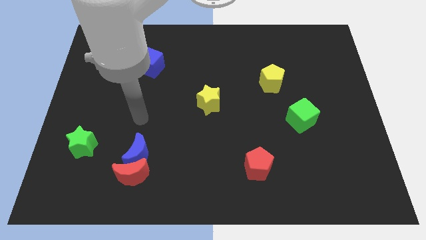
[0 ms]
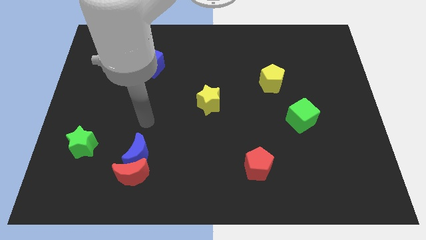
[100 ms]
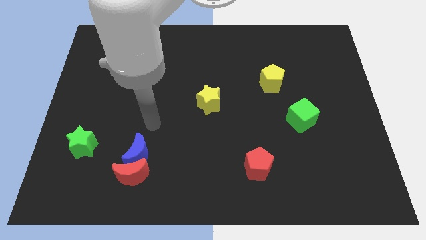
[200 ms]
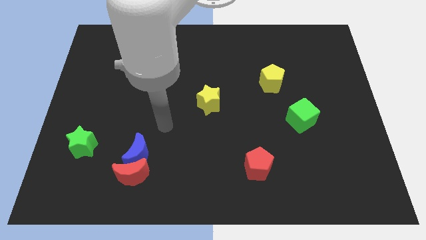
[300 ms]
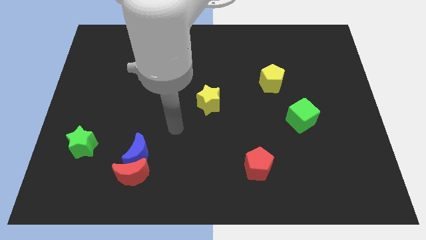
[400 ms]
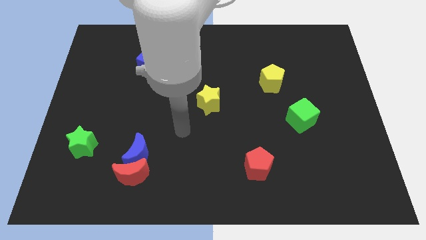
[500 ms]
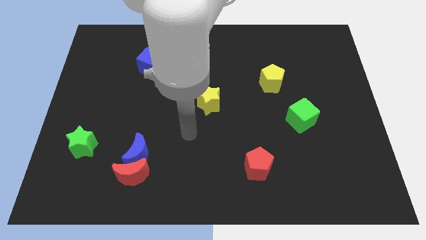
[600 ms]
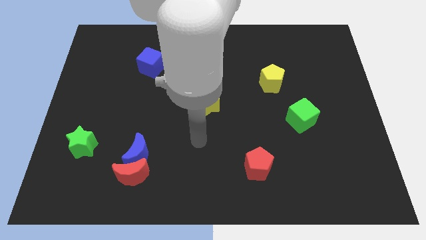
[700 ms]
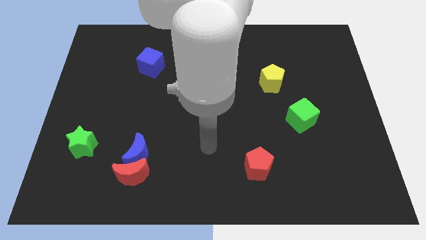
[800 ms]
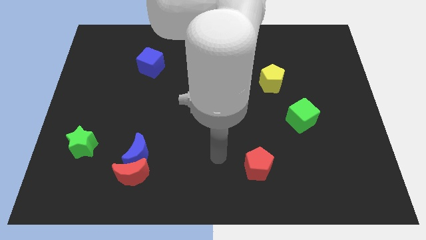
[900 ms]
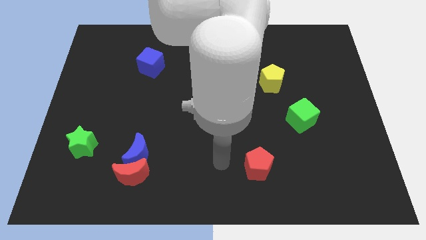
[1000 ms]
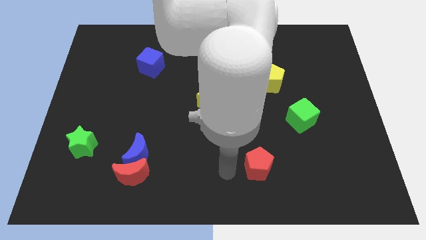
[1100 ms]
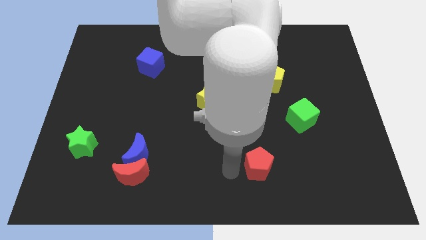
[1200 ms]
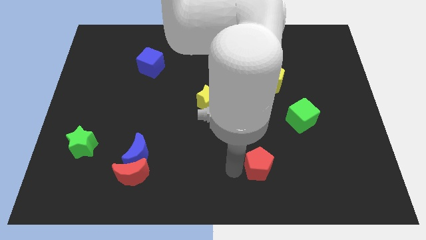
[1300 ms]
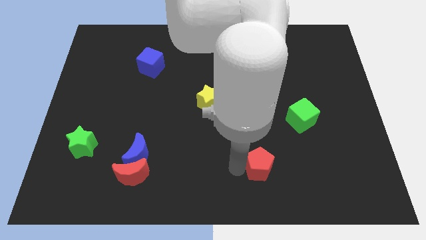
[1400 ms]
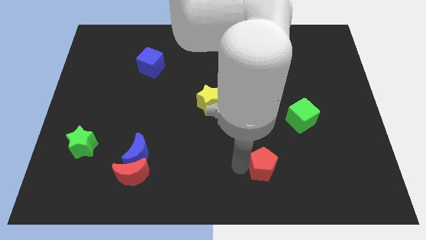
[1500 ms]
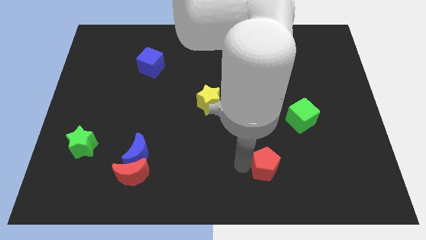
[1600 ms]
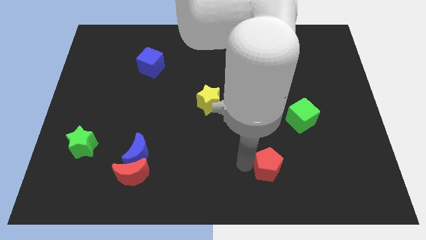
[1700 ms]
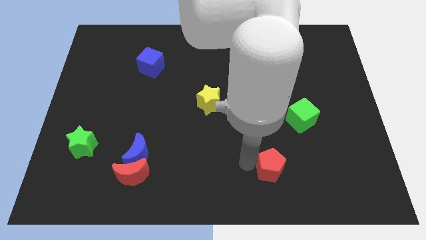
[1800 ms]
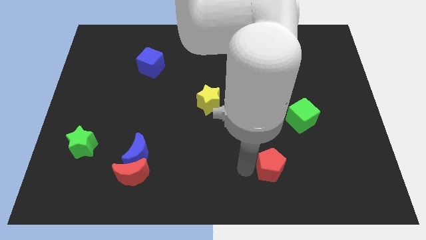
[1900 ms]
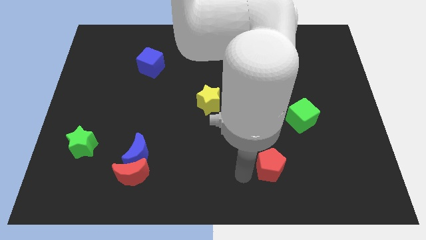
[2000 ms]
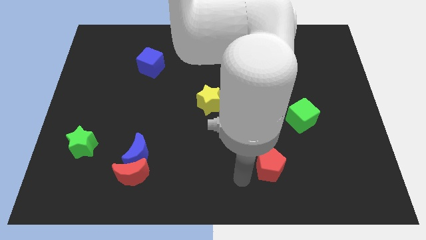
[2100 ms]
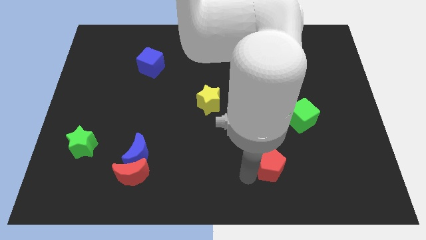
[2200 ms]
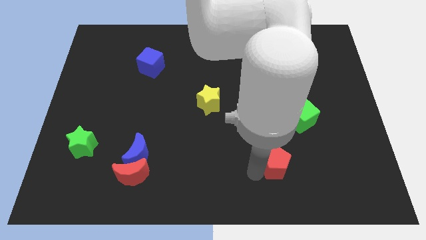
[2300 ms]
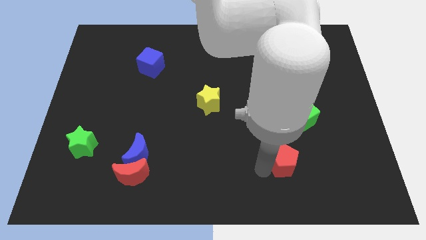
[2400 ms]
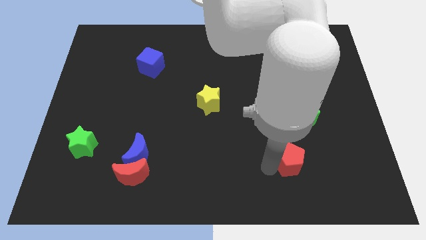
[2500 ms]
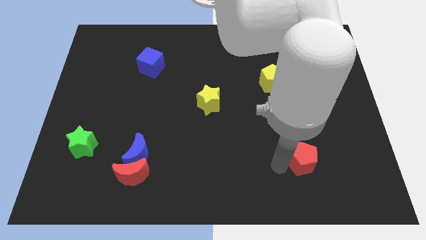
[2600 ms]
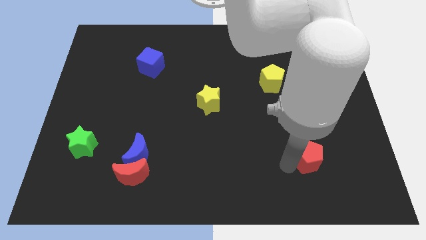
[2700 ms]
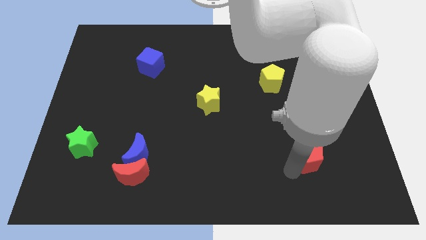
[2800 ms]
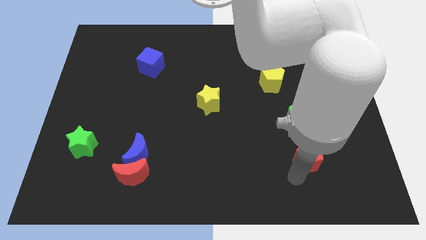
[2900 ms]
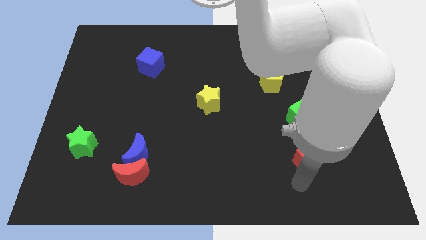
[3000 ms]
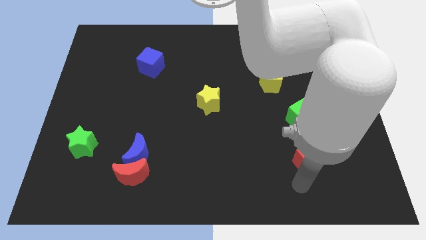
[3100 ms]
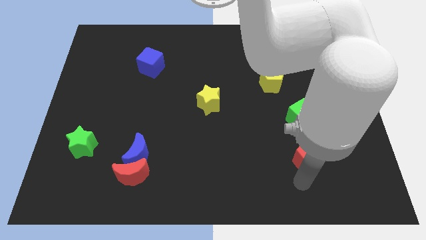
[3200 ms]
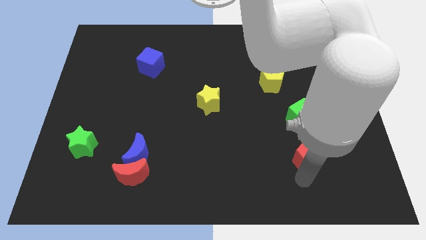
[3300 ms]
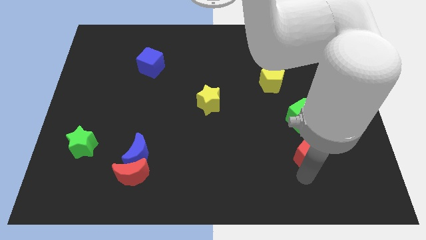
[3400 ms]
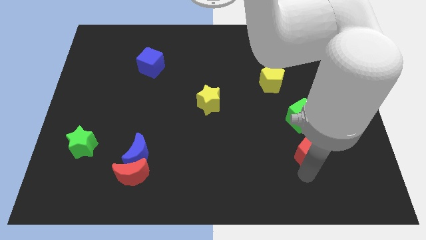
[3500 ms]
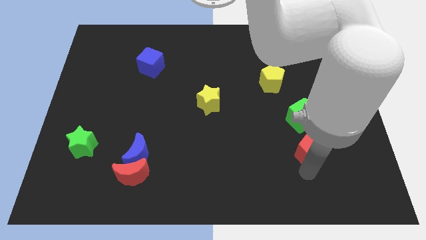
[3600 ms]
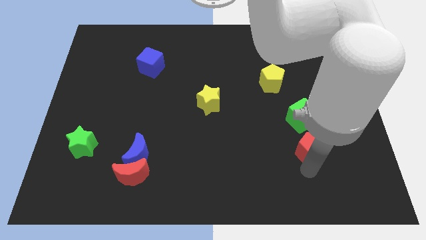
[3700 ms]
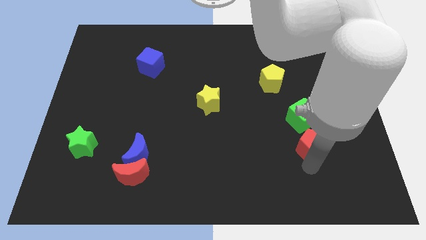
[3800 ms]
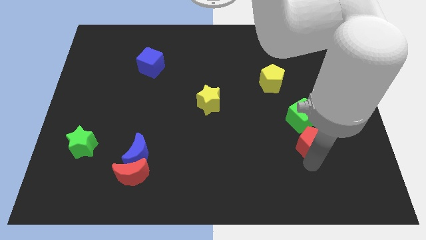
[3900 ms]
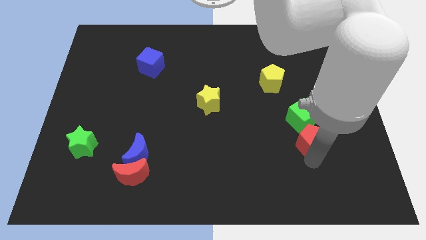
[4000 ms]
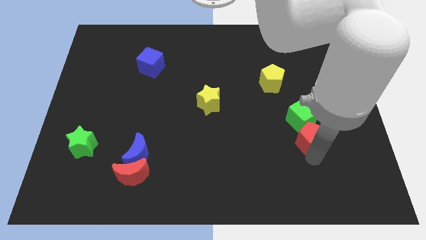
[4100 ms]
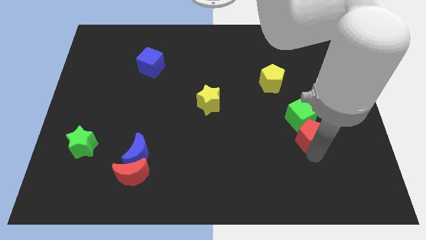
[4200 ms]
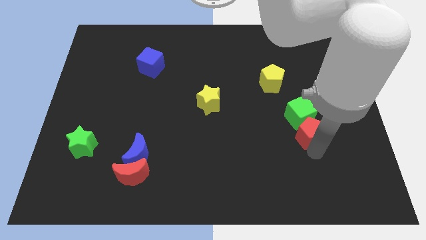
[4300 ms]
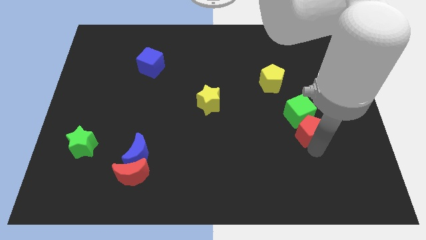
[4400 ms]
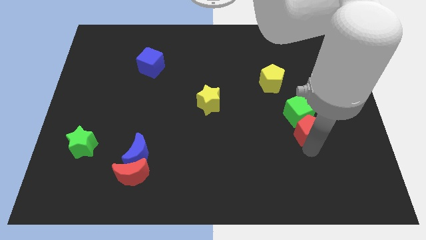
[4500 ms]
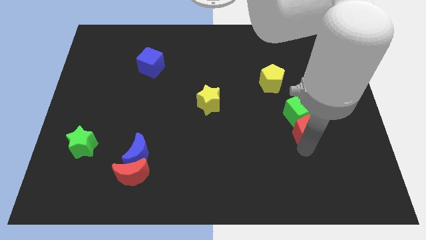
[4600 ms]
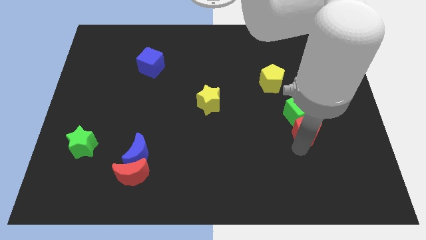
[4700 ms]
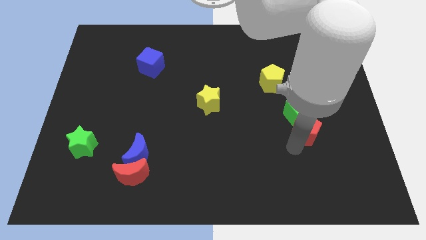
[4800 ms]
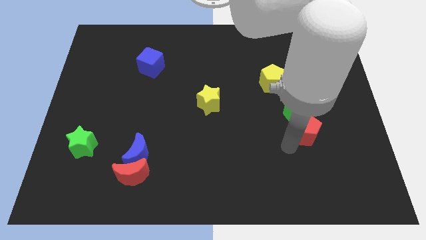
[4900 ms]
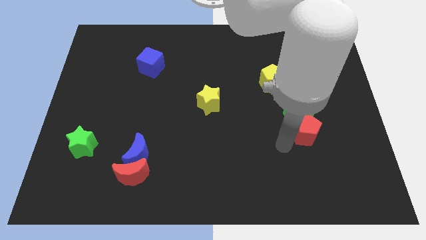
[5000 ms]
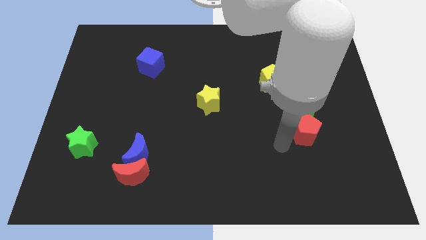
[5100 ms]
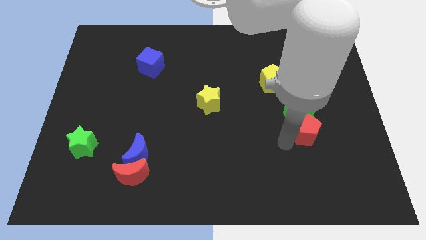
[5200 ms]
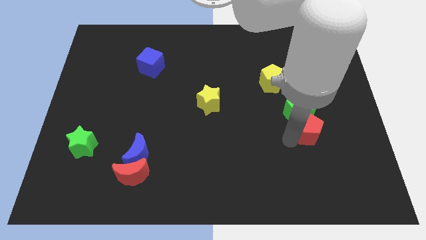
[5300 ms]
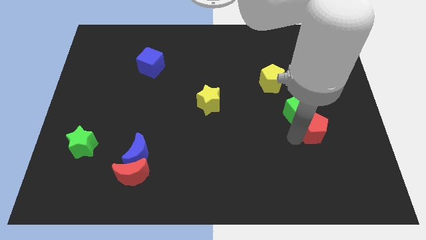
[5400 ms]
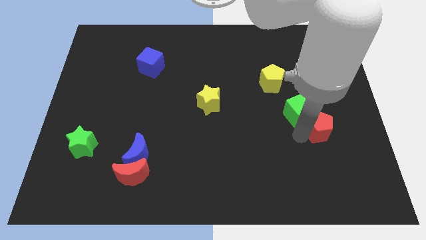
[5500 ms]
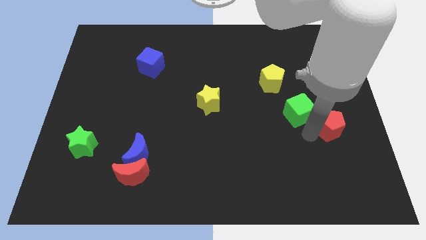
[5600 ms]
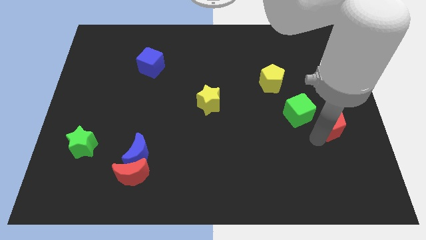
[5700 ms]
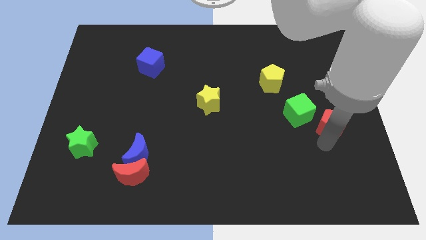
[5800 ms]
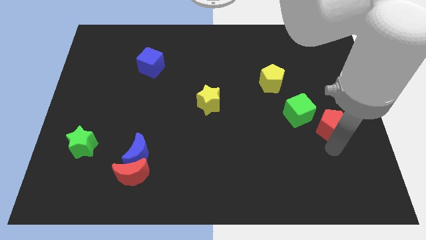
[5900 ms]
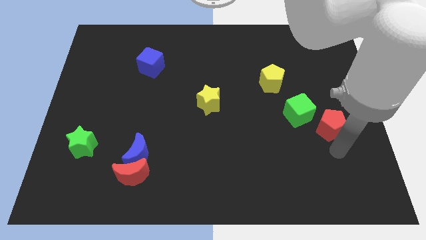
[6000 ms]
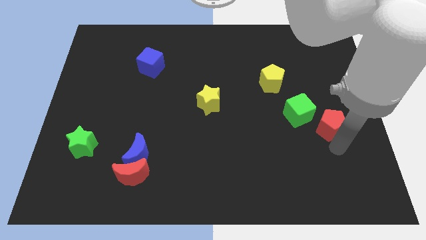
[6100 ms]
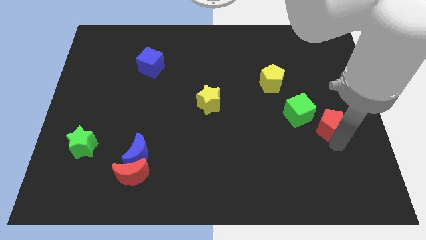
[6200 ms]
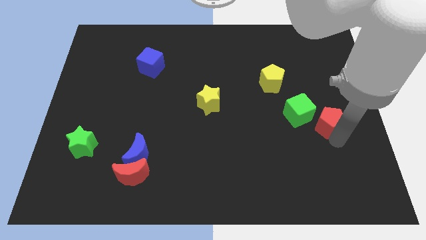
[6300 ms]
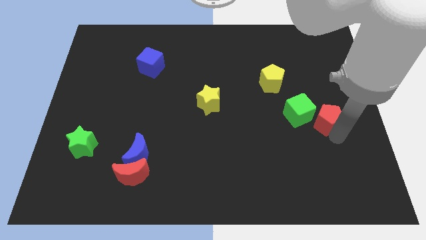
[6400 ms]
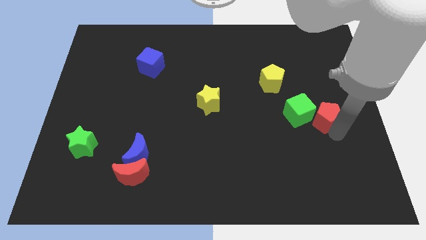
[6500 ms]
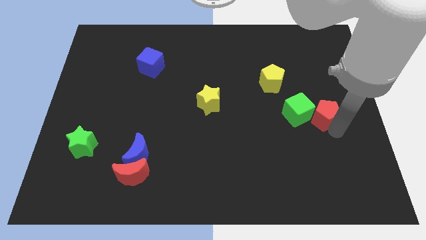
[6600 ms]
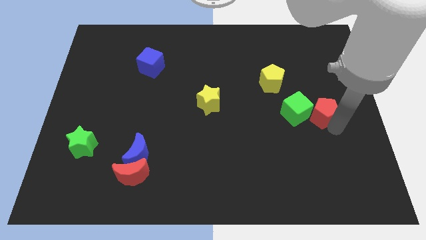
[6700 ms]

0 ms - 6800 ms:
put the red pentagon to the top right side of the green cube
